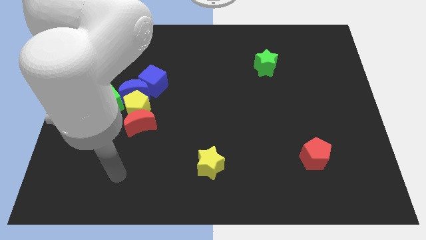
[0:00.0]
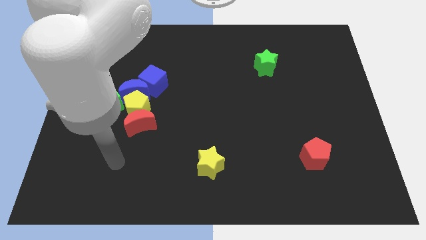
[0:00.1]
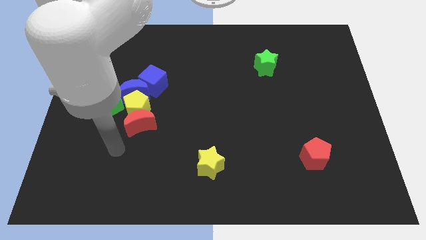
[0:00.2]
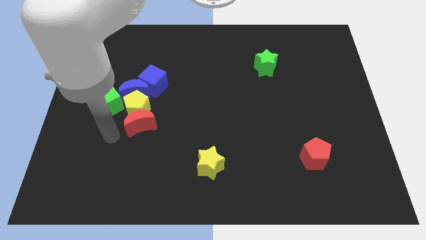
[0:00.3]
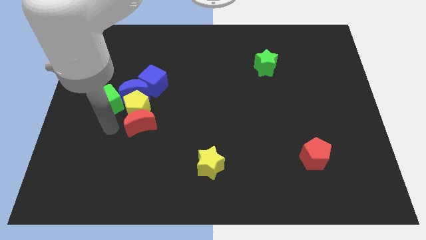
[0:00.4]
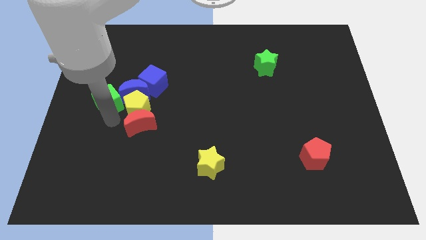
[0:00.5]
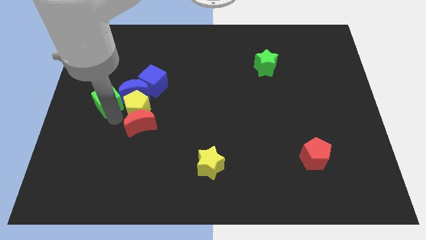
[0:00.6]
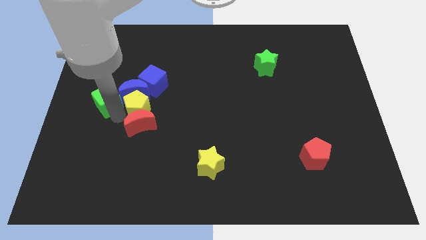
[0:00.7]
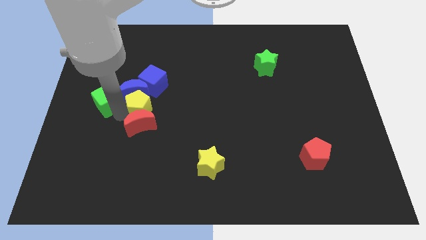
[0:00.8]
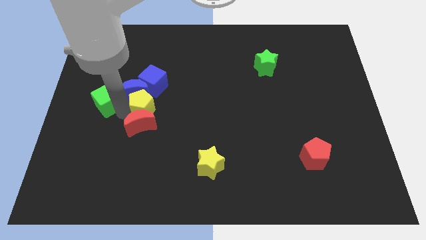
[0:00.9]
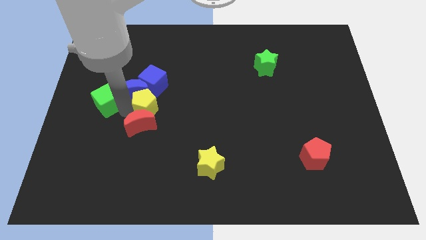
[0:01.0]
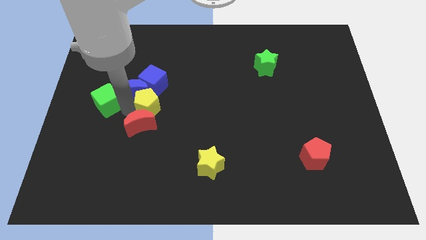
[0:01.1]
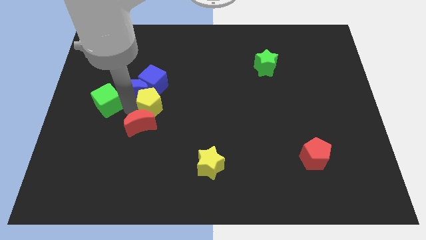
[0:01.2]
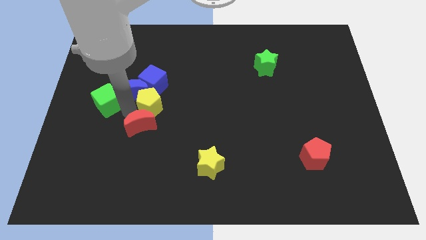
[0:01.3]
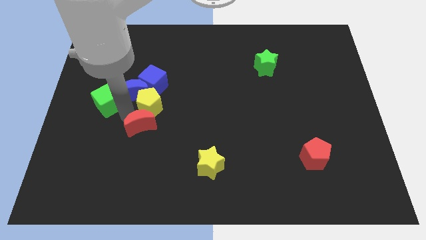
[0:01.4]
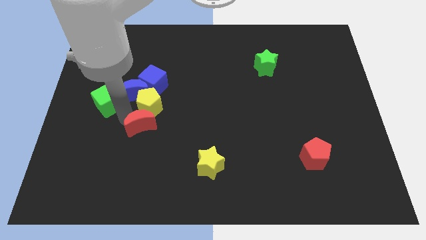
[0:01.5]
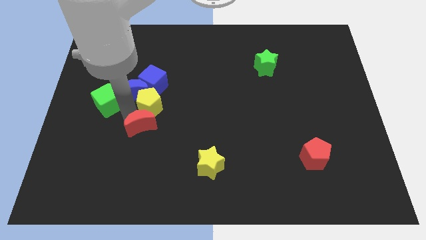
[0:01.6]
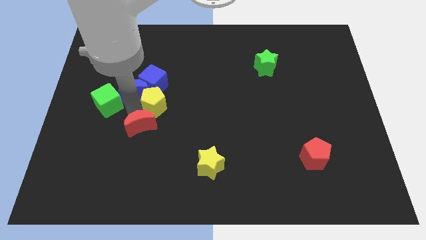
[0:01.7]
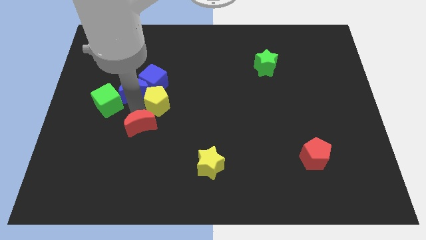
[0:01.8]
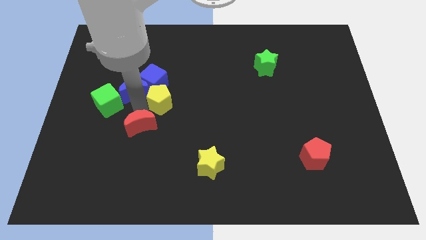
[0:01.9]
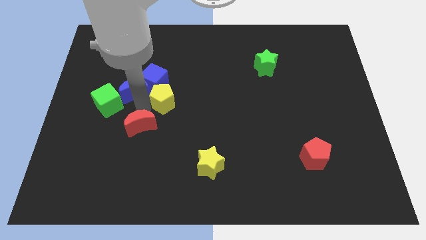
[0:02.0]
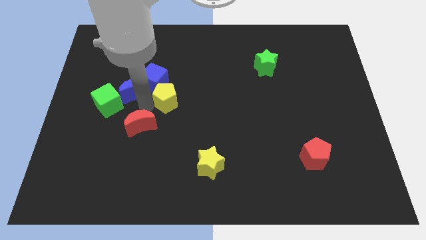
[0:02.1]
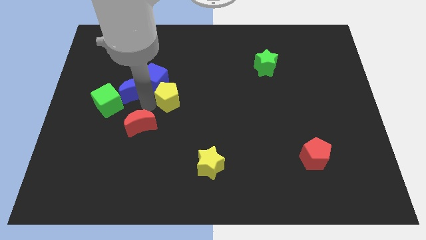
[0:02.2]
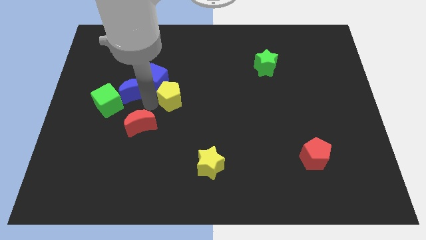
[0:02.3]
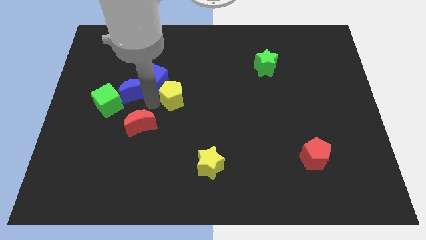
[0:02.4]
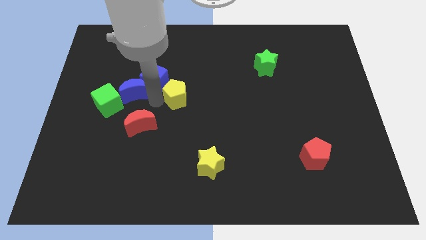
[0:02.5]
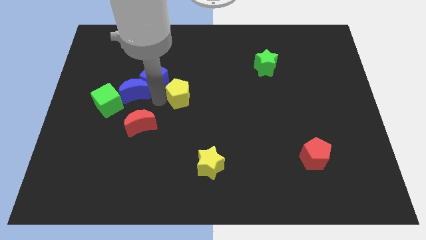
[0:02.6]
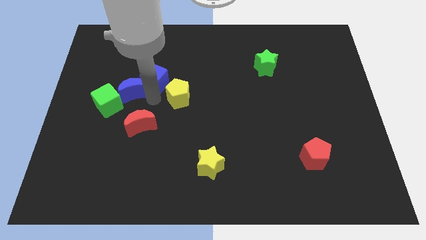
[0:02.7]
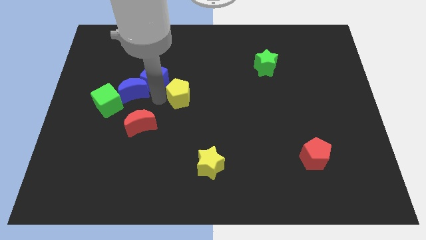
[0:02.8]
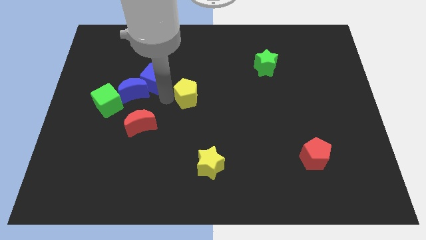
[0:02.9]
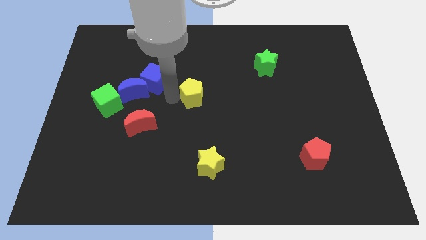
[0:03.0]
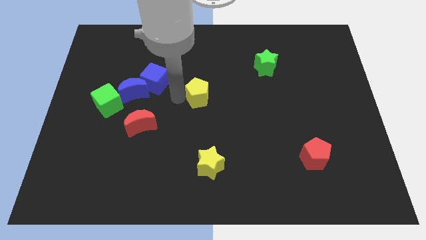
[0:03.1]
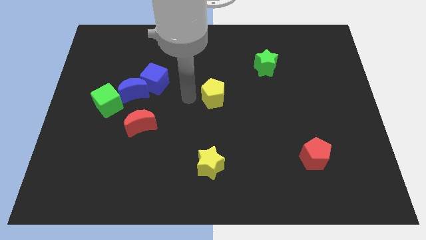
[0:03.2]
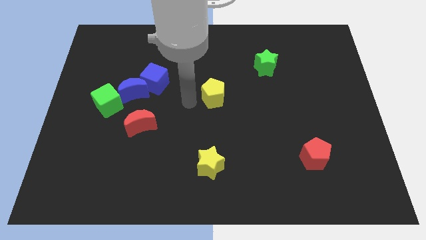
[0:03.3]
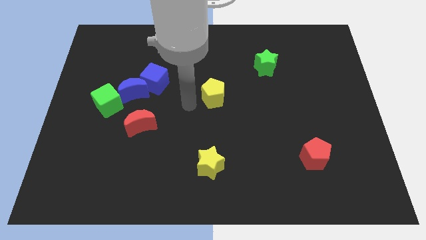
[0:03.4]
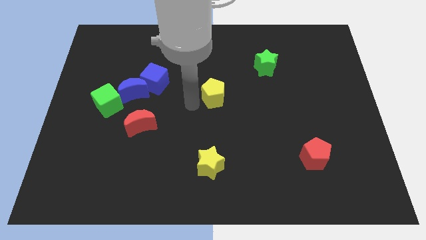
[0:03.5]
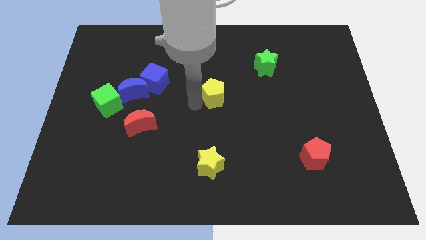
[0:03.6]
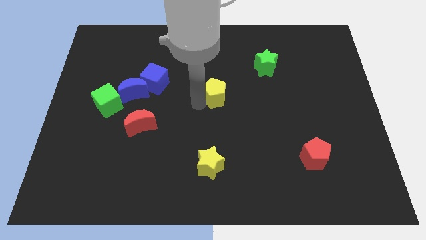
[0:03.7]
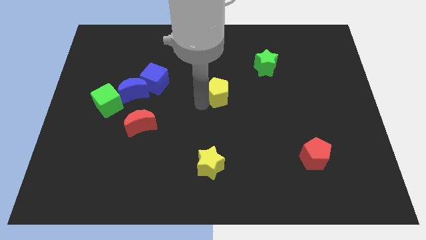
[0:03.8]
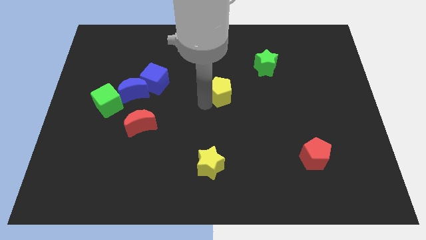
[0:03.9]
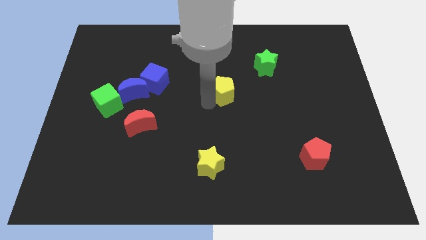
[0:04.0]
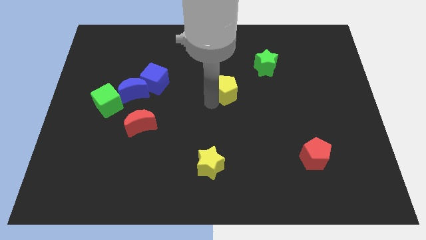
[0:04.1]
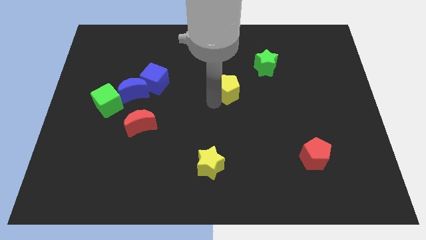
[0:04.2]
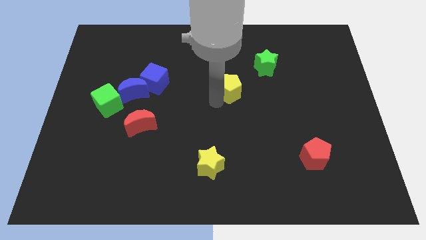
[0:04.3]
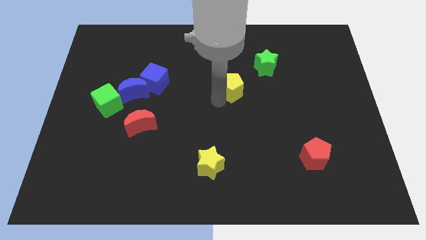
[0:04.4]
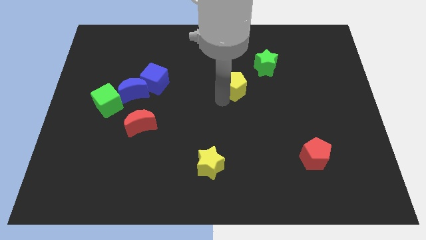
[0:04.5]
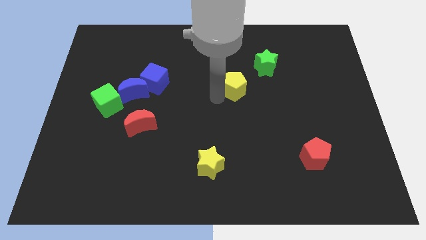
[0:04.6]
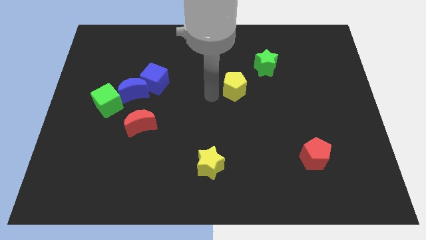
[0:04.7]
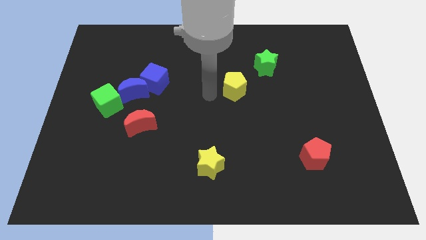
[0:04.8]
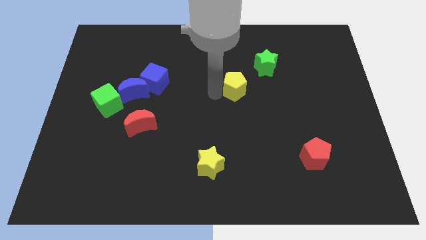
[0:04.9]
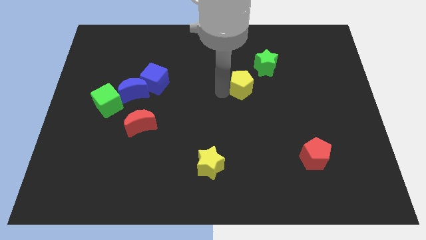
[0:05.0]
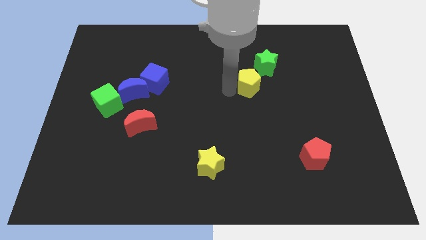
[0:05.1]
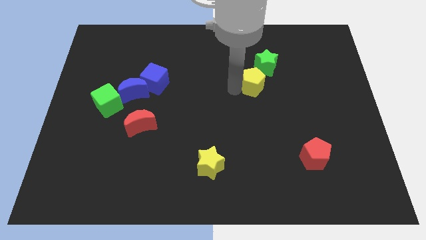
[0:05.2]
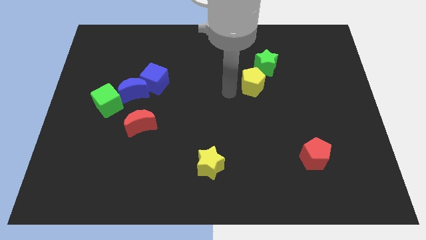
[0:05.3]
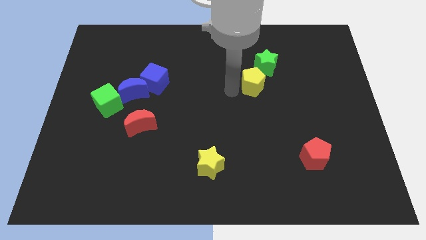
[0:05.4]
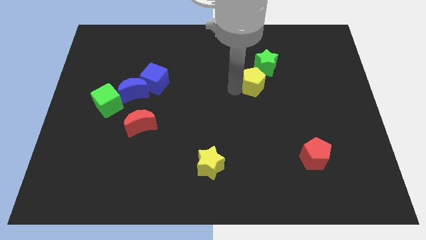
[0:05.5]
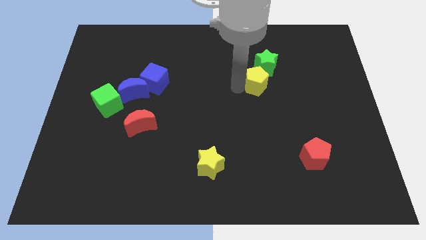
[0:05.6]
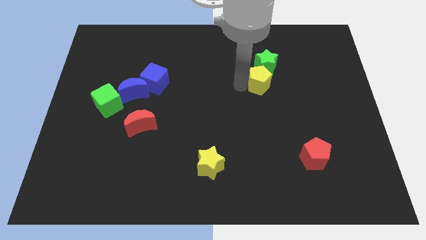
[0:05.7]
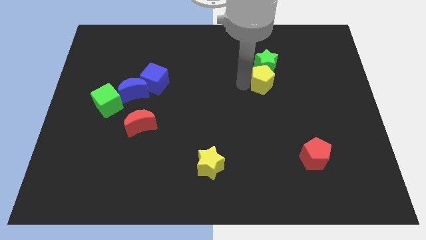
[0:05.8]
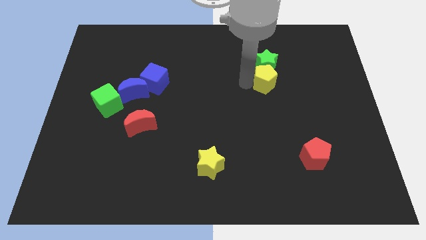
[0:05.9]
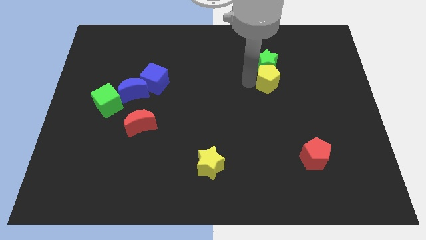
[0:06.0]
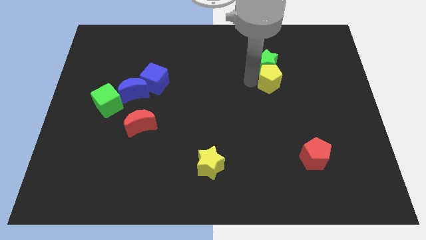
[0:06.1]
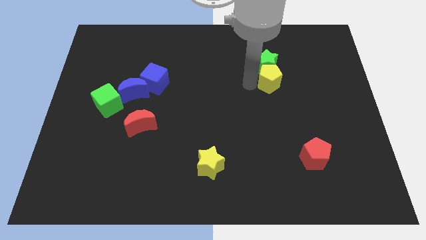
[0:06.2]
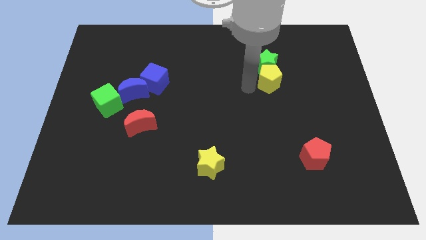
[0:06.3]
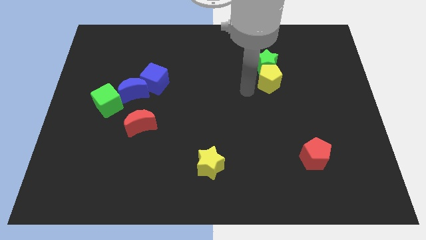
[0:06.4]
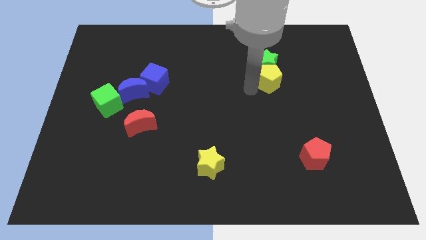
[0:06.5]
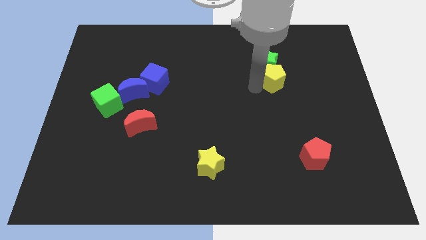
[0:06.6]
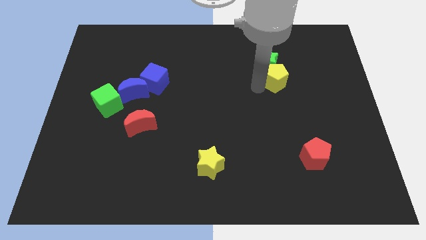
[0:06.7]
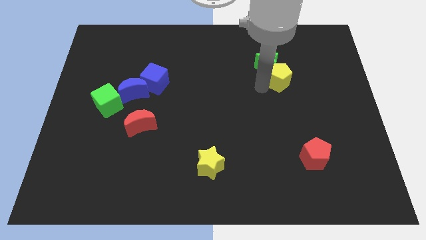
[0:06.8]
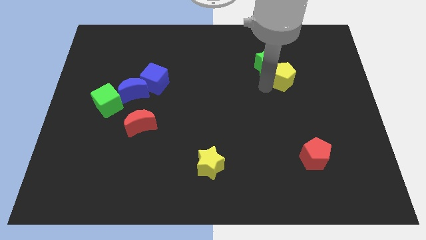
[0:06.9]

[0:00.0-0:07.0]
move the yellow pentagon just right of the green star
